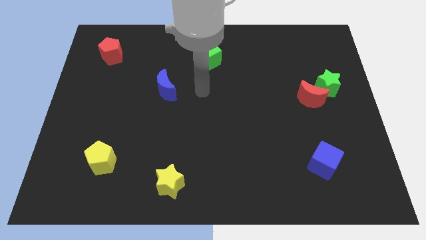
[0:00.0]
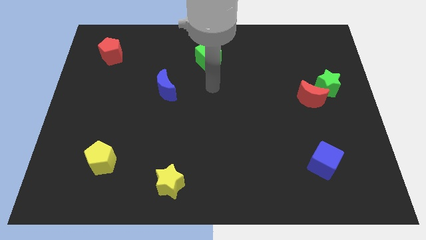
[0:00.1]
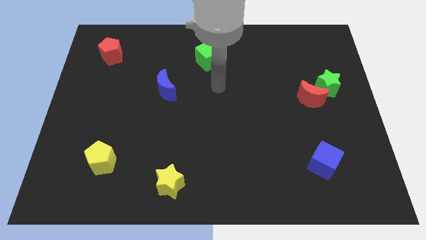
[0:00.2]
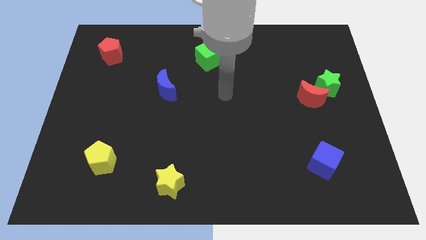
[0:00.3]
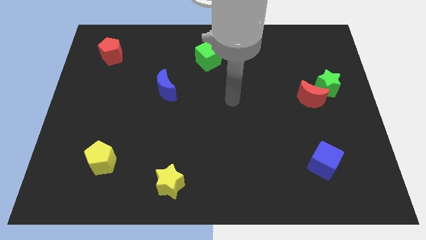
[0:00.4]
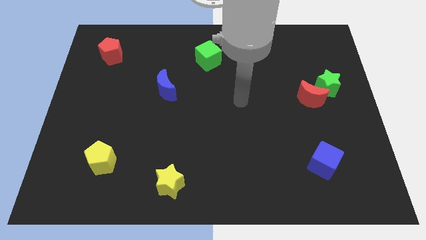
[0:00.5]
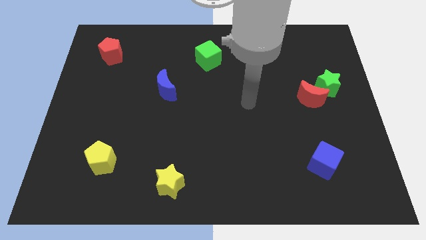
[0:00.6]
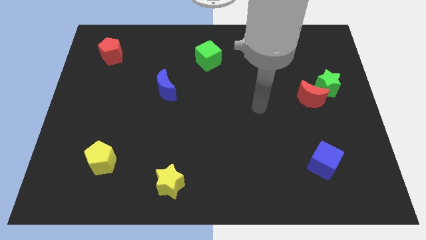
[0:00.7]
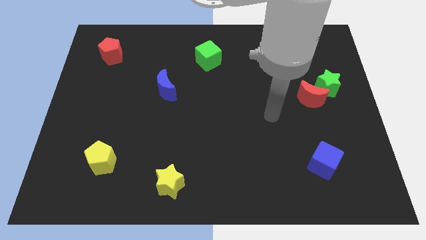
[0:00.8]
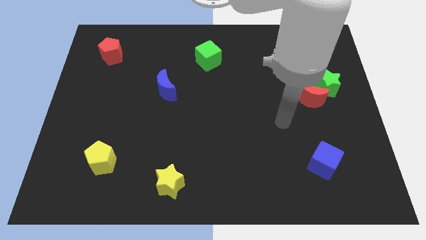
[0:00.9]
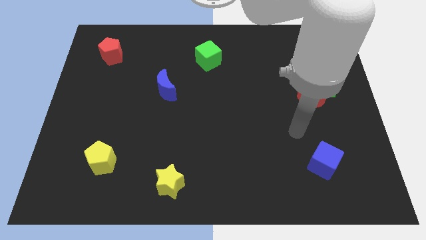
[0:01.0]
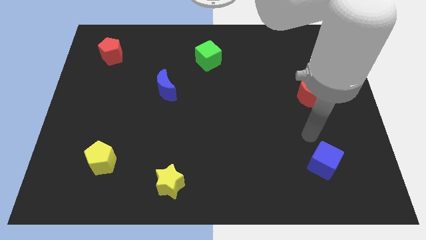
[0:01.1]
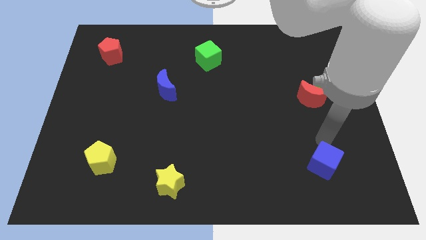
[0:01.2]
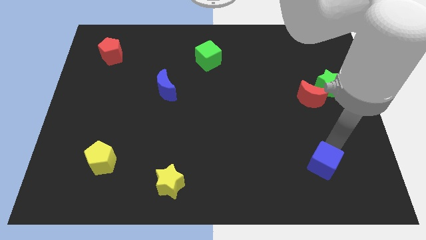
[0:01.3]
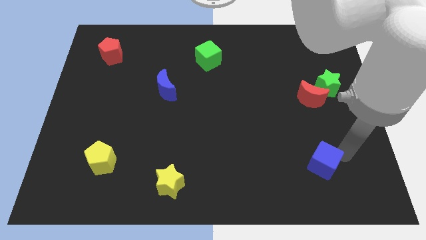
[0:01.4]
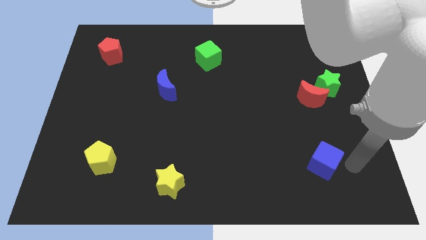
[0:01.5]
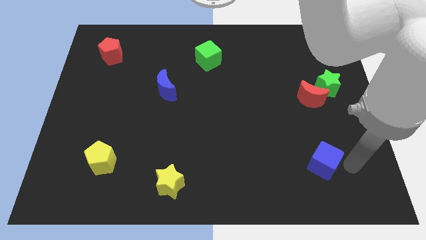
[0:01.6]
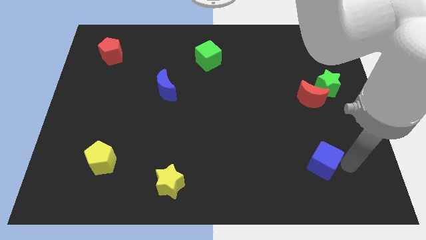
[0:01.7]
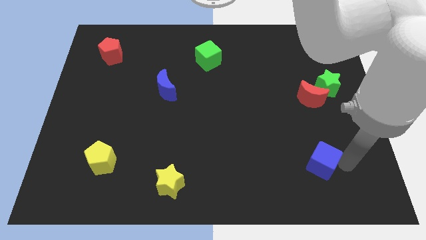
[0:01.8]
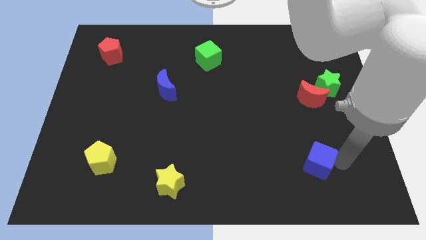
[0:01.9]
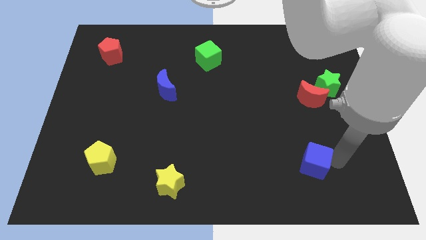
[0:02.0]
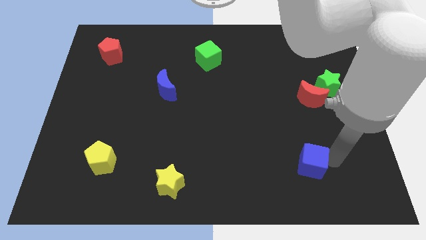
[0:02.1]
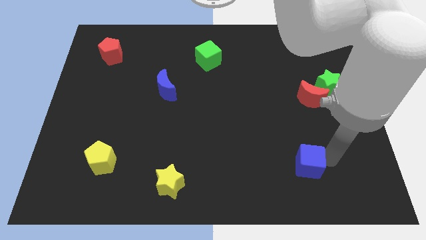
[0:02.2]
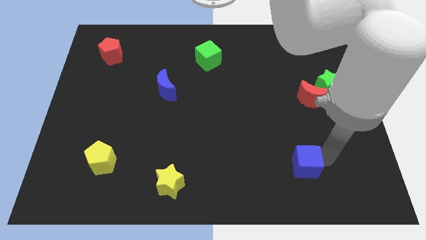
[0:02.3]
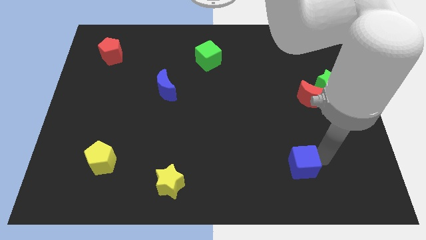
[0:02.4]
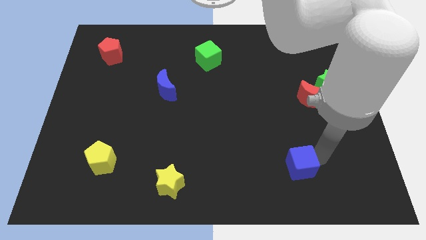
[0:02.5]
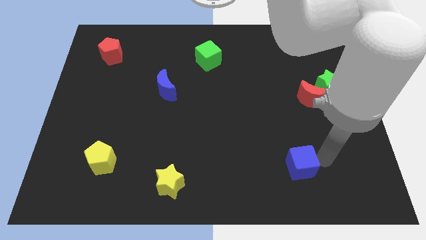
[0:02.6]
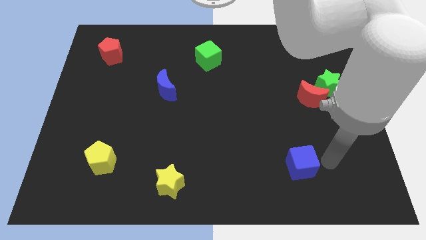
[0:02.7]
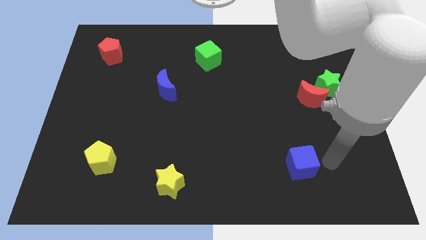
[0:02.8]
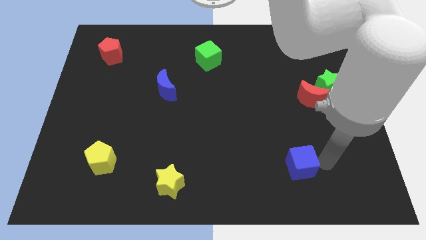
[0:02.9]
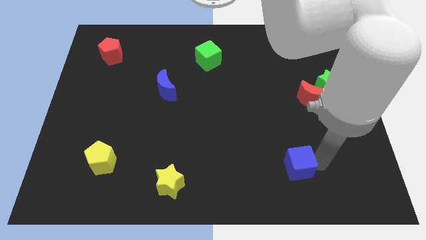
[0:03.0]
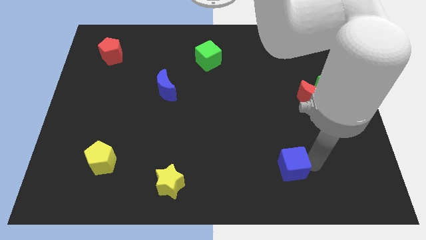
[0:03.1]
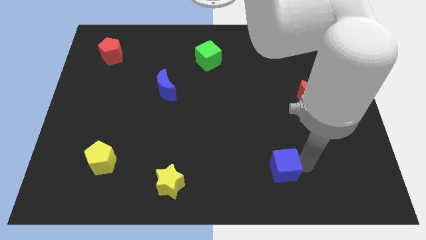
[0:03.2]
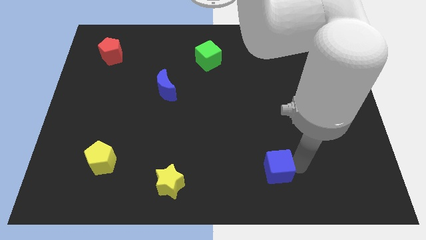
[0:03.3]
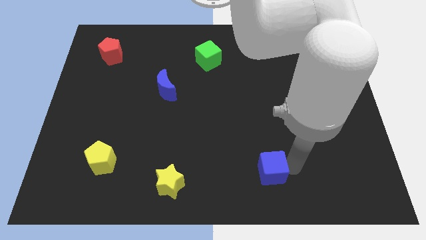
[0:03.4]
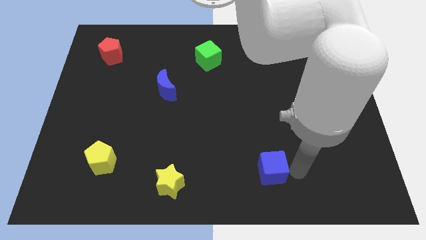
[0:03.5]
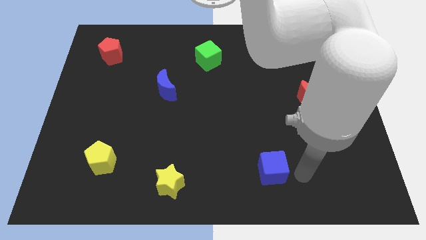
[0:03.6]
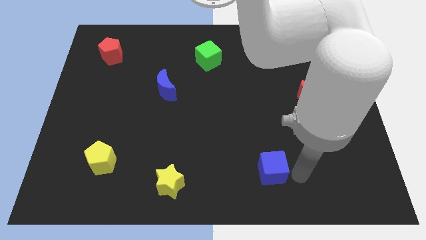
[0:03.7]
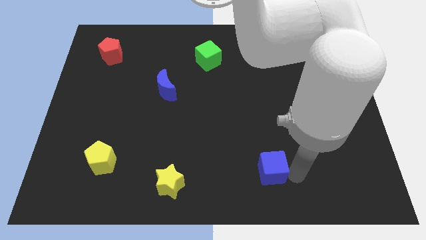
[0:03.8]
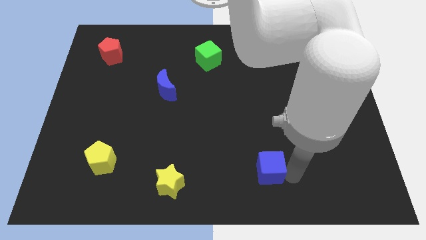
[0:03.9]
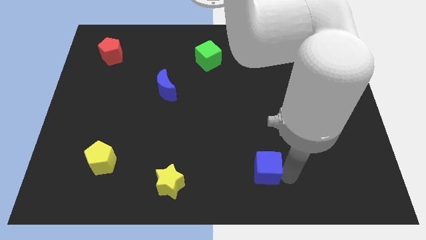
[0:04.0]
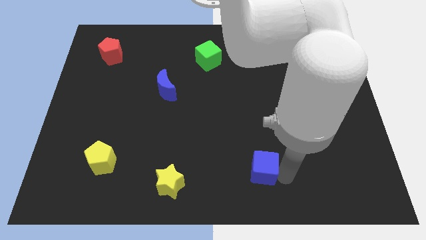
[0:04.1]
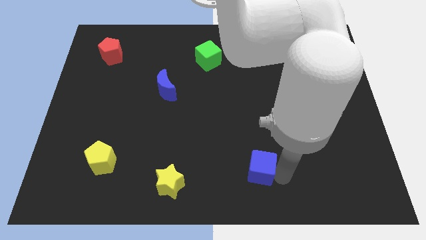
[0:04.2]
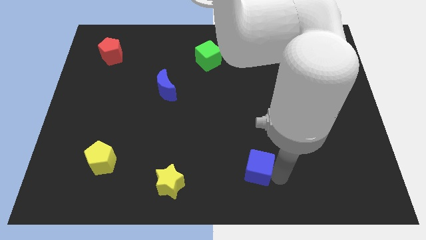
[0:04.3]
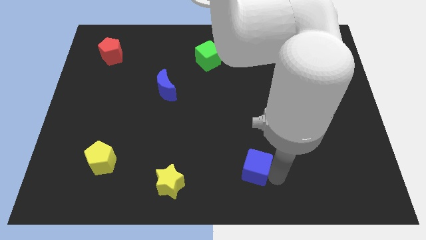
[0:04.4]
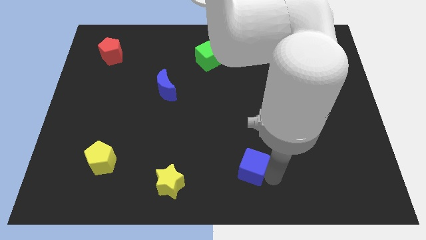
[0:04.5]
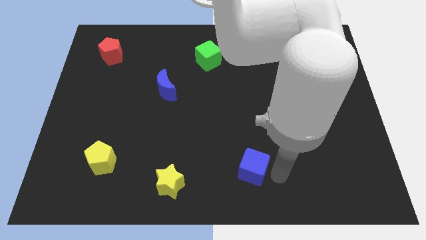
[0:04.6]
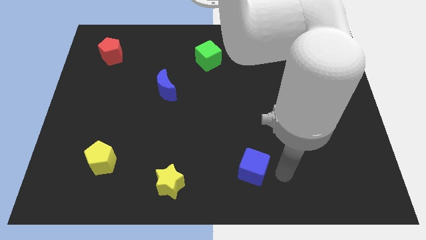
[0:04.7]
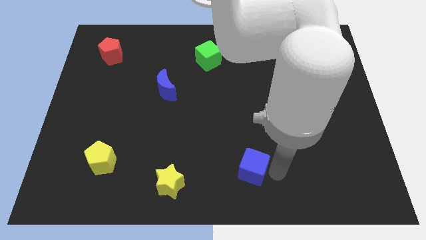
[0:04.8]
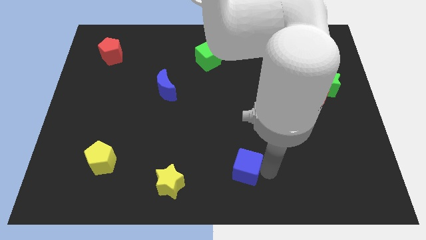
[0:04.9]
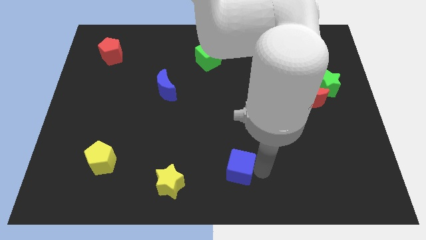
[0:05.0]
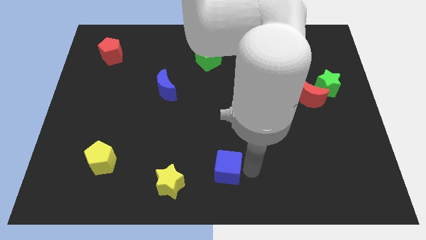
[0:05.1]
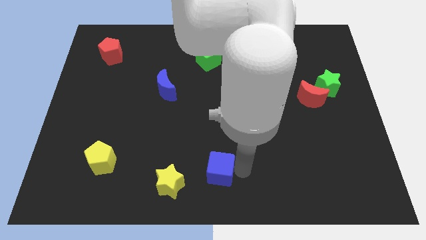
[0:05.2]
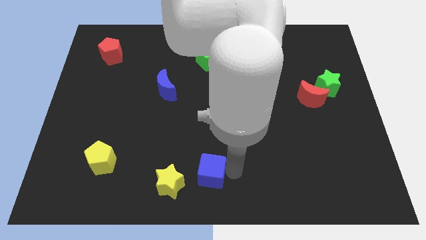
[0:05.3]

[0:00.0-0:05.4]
move the blue cube to the top right of the yellow star

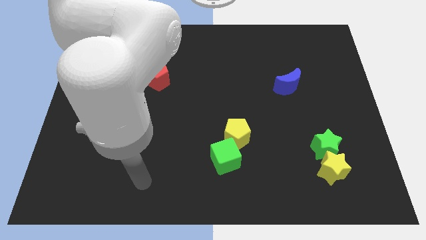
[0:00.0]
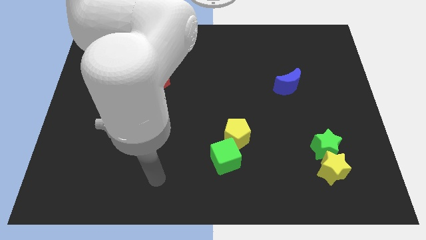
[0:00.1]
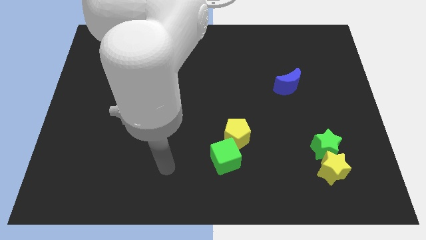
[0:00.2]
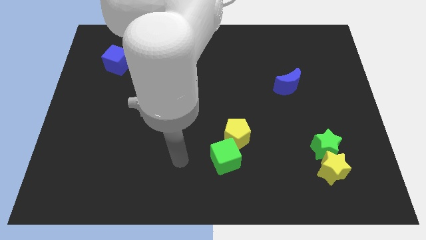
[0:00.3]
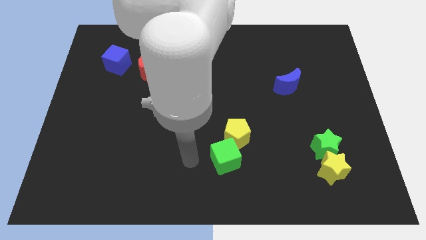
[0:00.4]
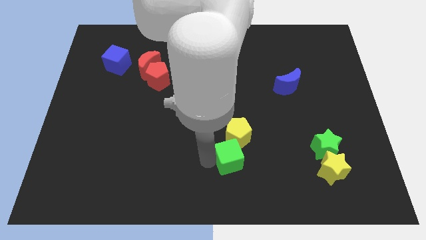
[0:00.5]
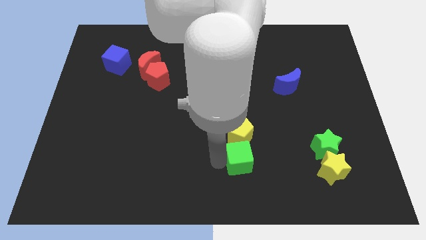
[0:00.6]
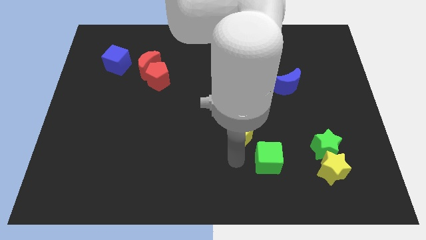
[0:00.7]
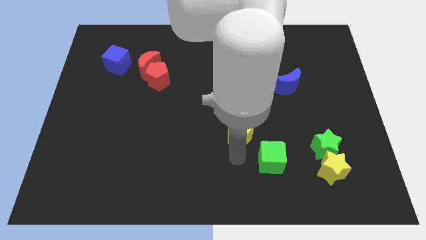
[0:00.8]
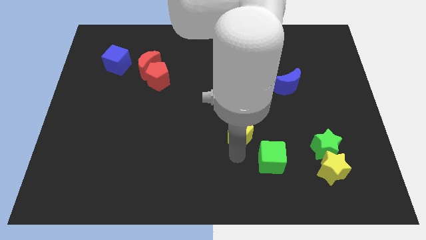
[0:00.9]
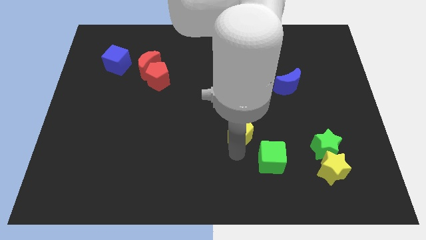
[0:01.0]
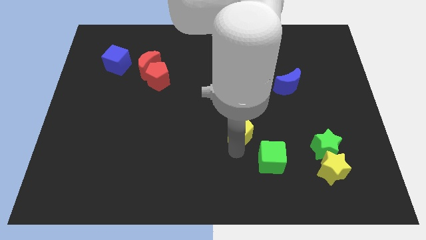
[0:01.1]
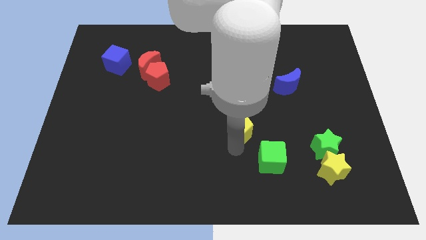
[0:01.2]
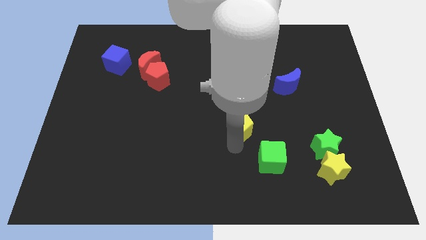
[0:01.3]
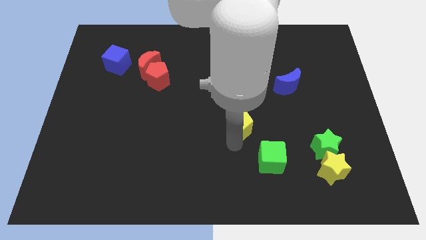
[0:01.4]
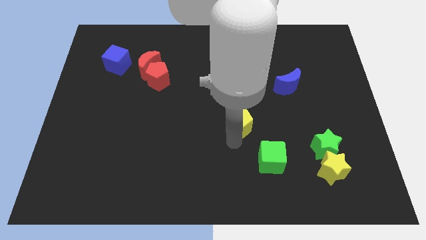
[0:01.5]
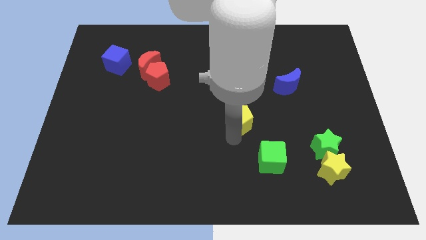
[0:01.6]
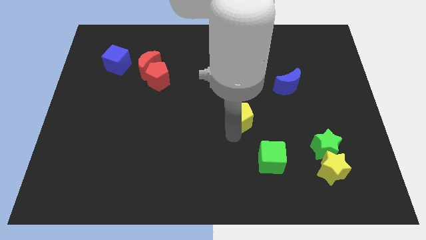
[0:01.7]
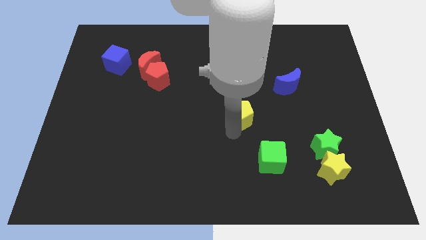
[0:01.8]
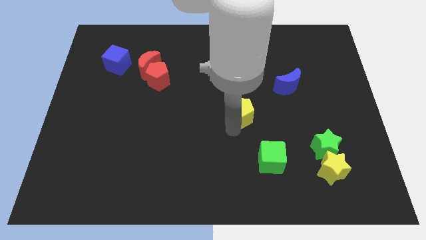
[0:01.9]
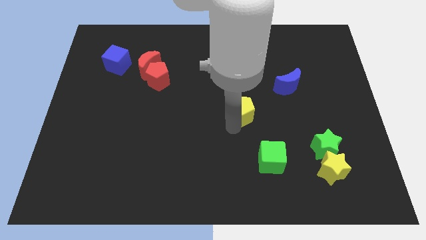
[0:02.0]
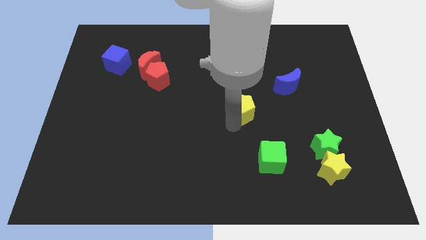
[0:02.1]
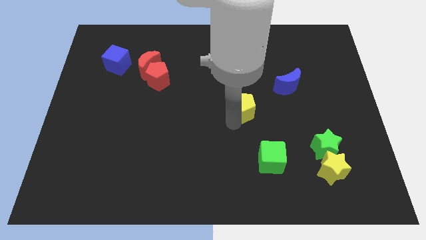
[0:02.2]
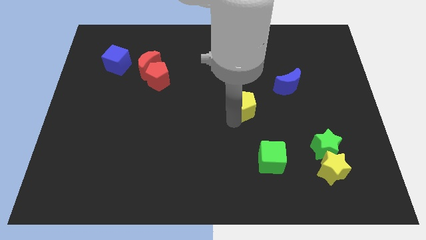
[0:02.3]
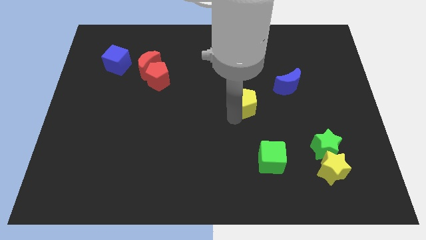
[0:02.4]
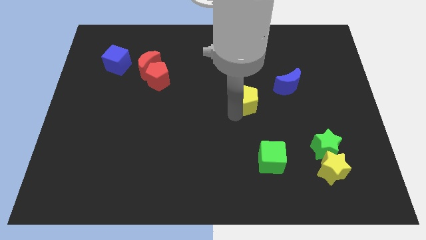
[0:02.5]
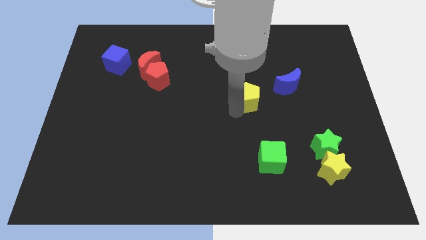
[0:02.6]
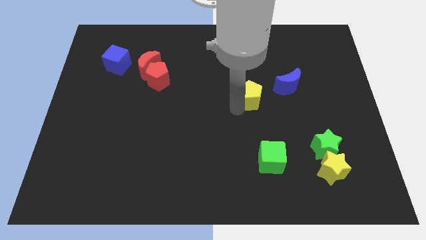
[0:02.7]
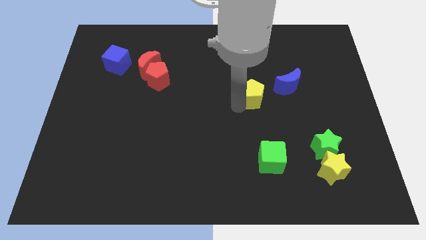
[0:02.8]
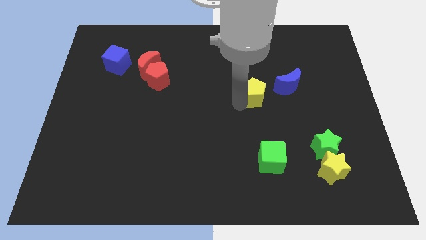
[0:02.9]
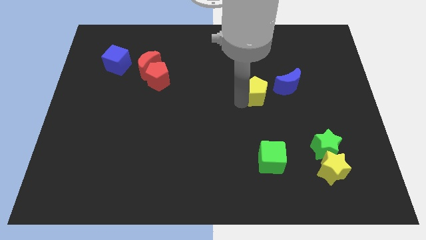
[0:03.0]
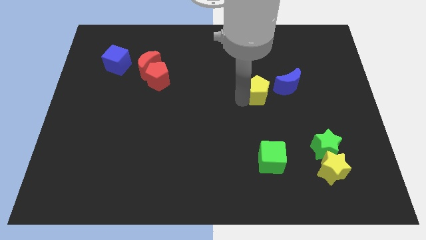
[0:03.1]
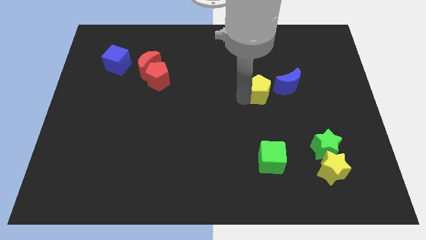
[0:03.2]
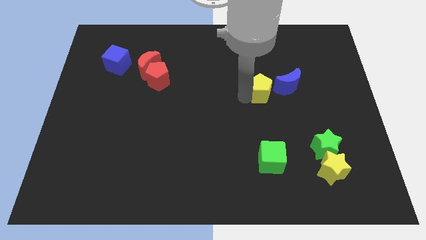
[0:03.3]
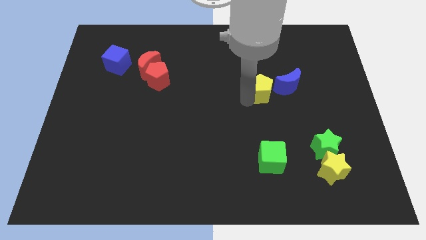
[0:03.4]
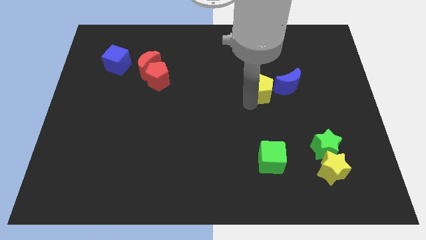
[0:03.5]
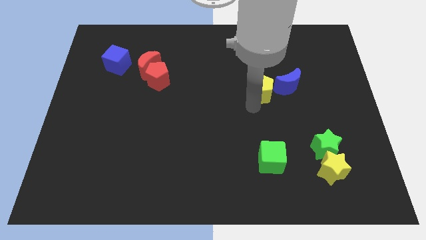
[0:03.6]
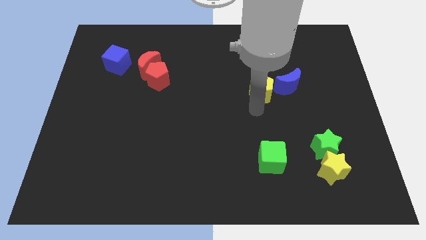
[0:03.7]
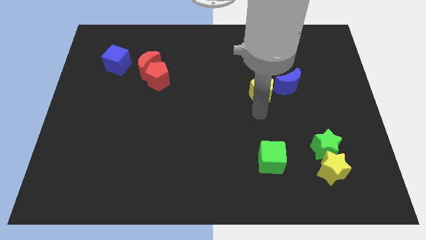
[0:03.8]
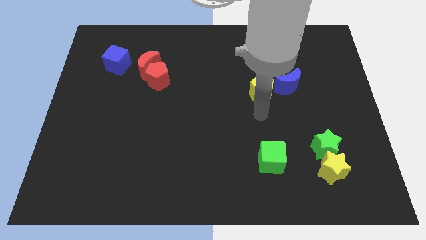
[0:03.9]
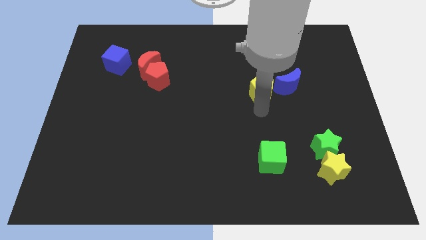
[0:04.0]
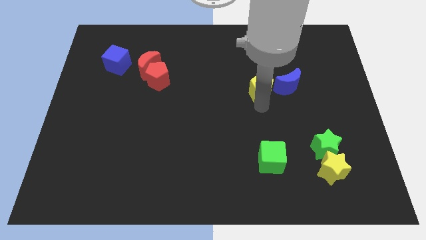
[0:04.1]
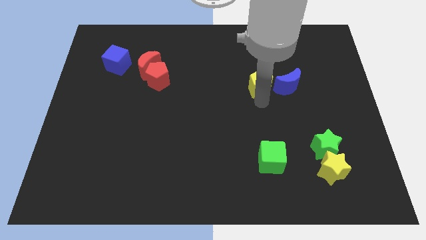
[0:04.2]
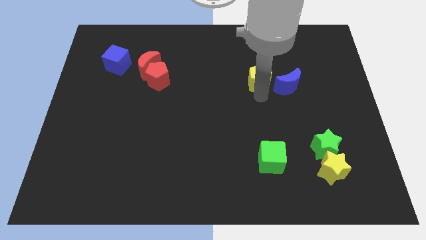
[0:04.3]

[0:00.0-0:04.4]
move the yellow pentagon to the top left side of the blue moon
